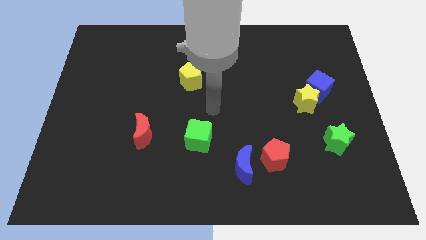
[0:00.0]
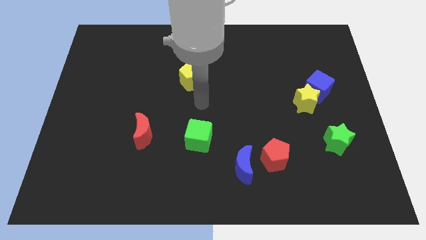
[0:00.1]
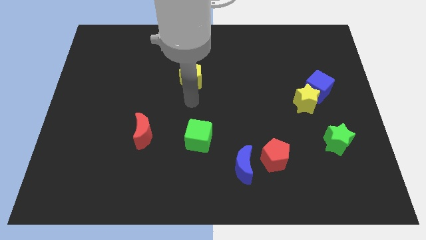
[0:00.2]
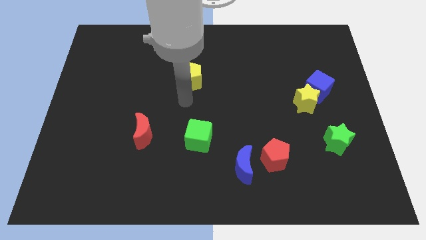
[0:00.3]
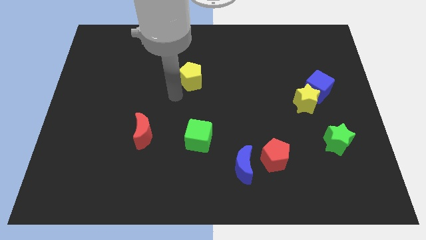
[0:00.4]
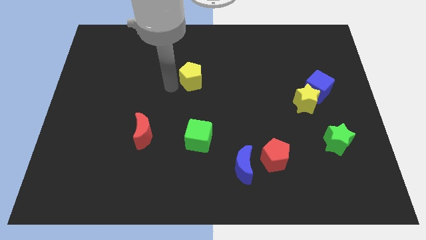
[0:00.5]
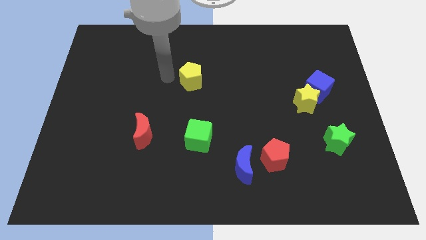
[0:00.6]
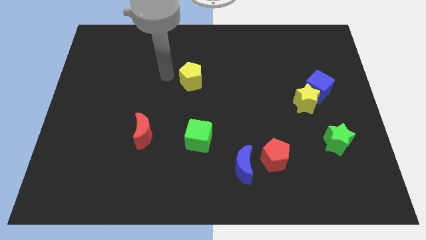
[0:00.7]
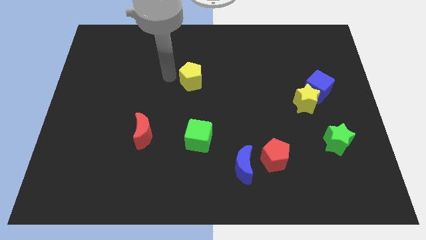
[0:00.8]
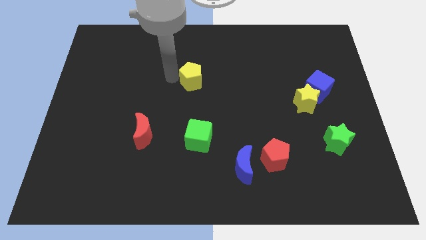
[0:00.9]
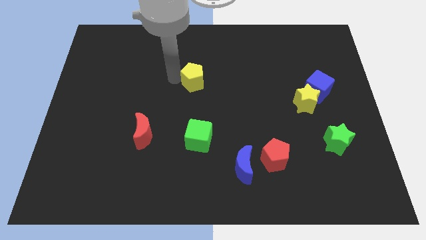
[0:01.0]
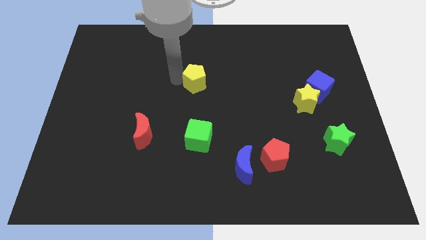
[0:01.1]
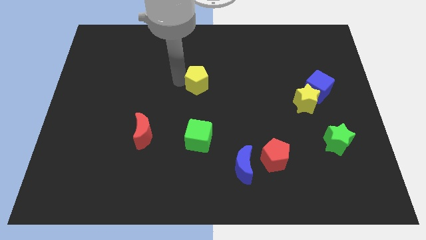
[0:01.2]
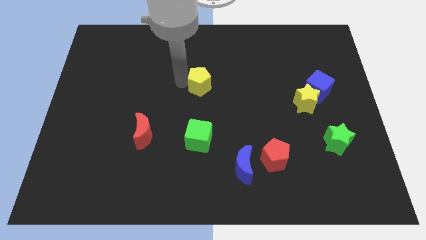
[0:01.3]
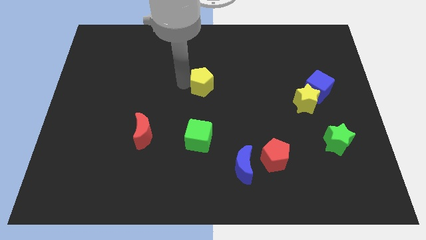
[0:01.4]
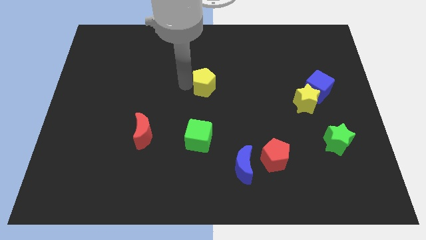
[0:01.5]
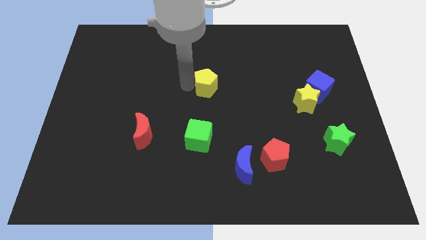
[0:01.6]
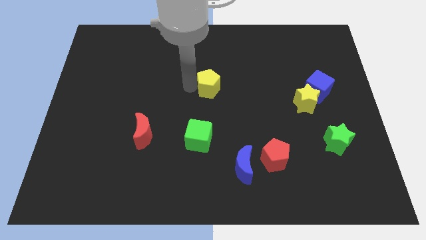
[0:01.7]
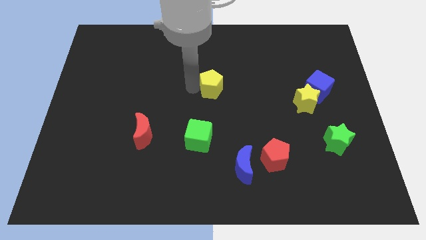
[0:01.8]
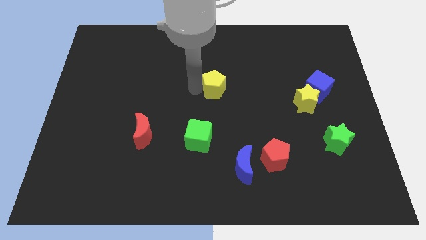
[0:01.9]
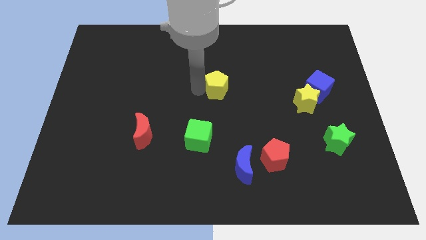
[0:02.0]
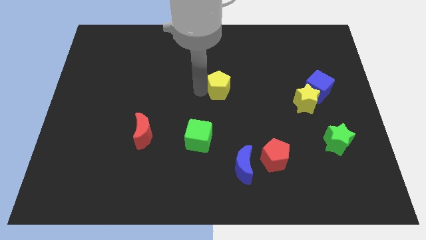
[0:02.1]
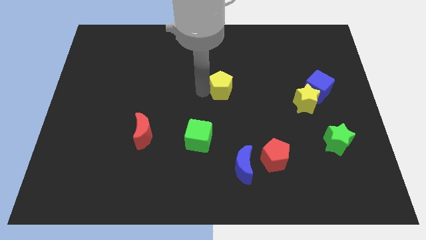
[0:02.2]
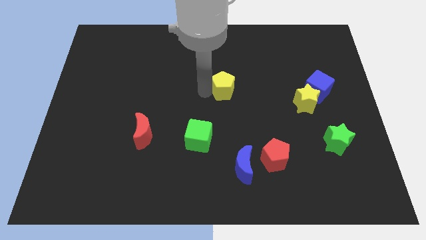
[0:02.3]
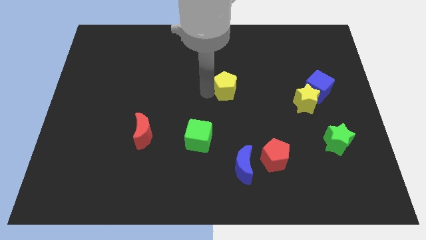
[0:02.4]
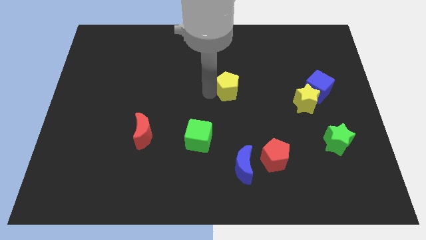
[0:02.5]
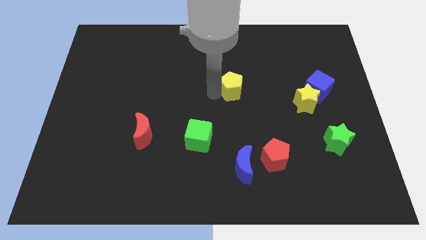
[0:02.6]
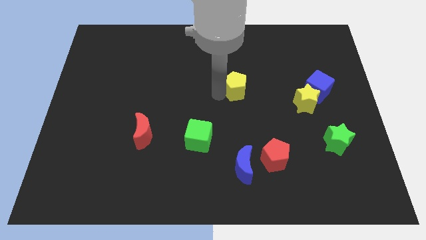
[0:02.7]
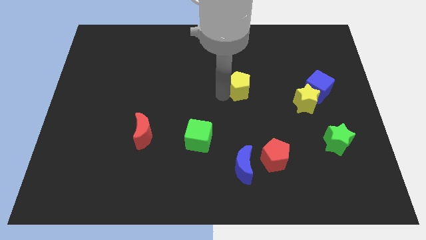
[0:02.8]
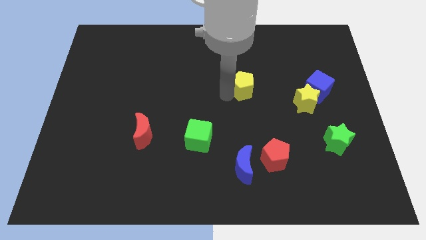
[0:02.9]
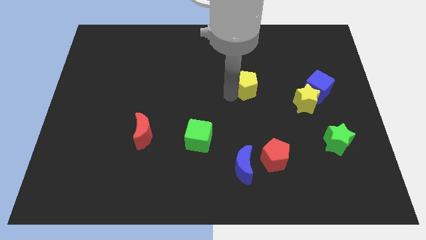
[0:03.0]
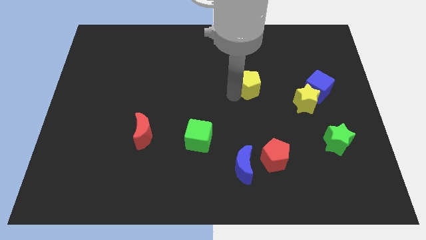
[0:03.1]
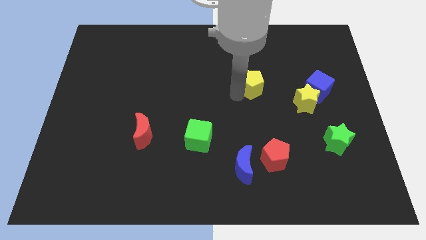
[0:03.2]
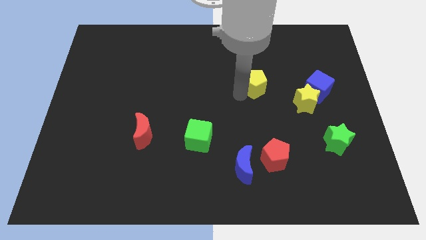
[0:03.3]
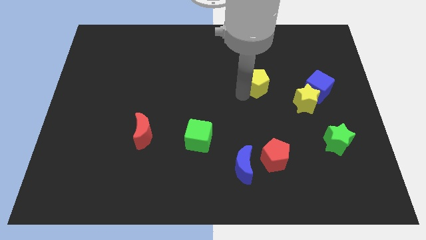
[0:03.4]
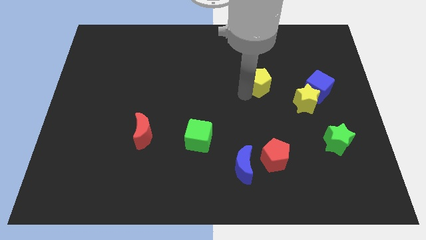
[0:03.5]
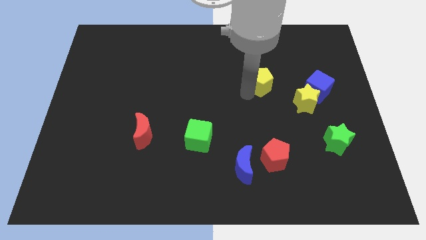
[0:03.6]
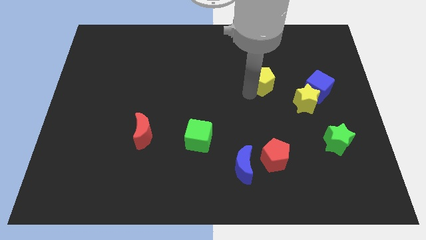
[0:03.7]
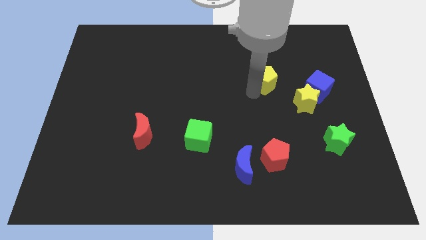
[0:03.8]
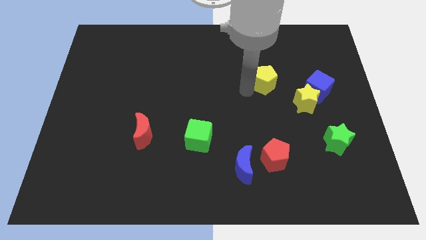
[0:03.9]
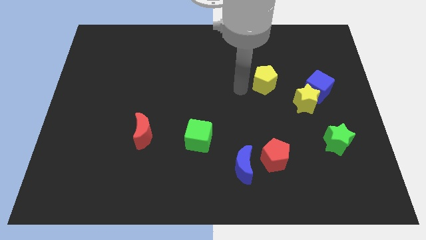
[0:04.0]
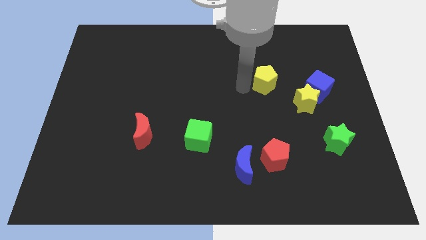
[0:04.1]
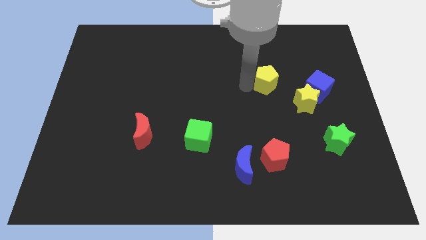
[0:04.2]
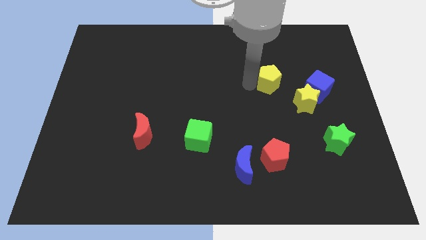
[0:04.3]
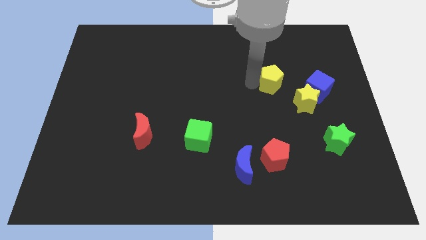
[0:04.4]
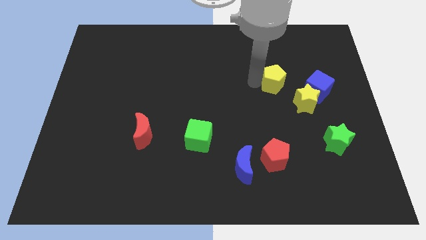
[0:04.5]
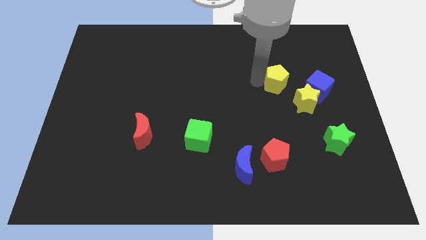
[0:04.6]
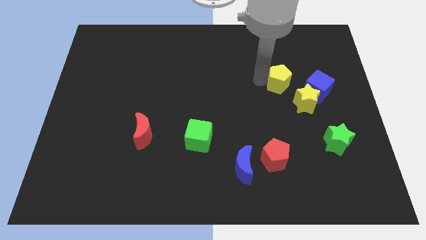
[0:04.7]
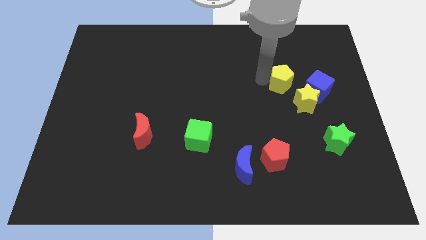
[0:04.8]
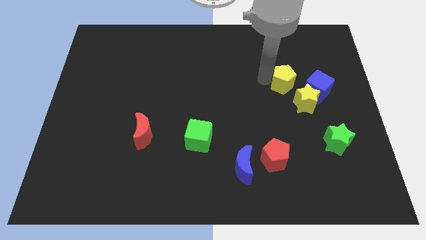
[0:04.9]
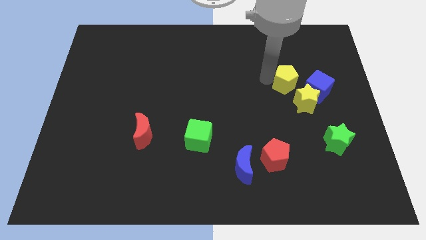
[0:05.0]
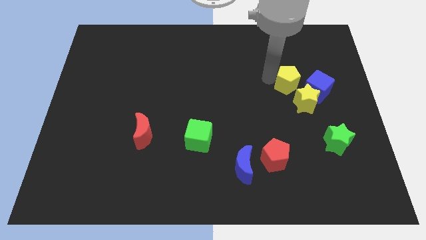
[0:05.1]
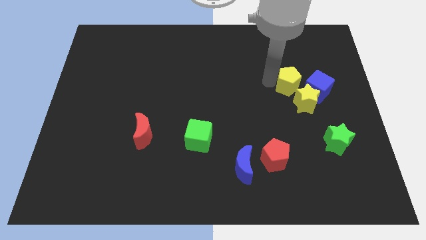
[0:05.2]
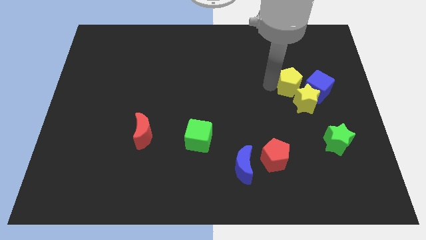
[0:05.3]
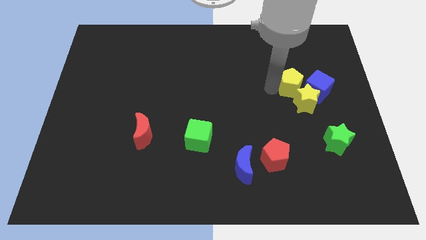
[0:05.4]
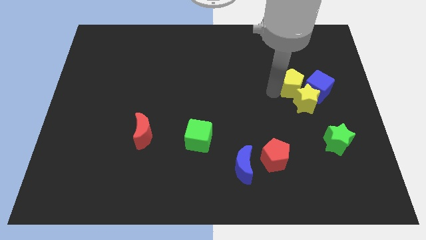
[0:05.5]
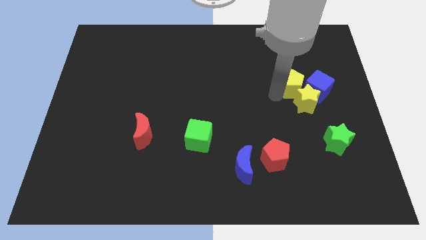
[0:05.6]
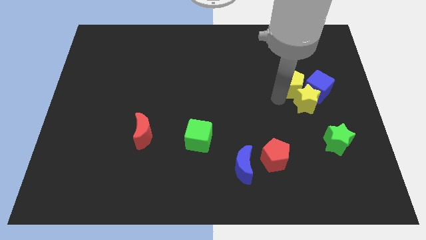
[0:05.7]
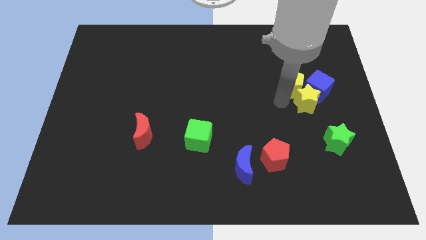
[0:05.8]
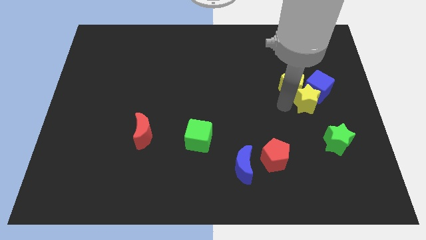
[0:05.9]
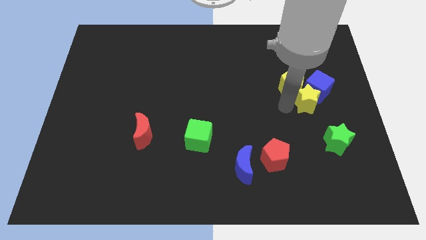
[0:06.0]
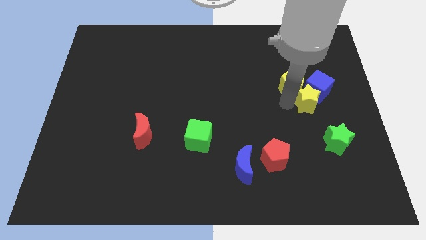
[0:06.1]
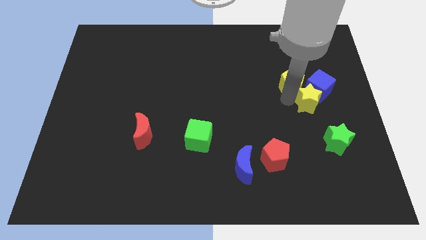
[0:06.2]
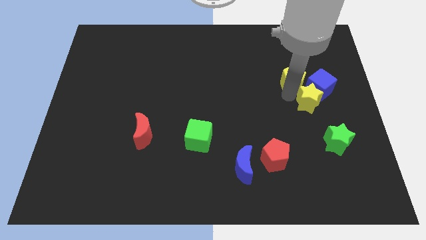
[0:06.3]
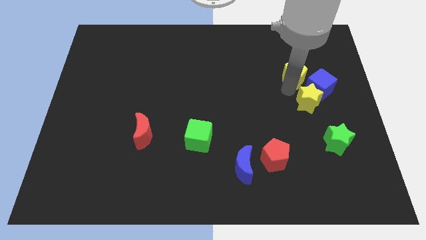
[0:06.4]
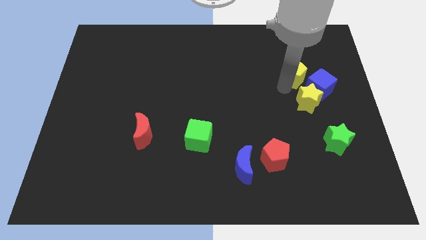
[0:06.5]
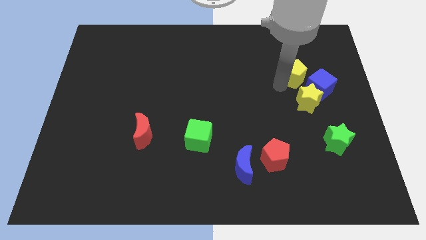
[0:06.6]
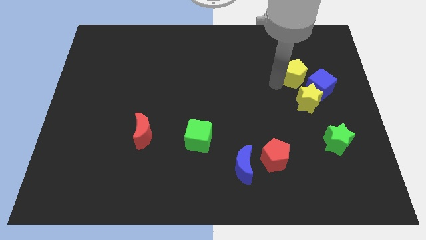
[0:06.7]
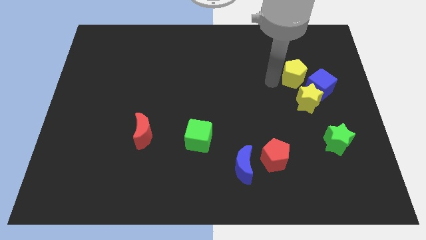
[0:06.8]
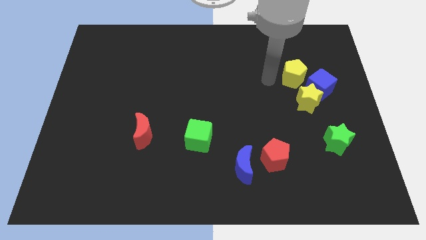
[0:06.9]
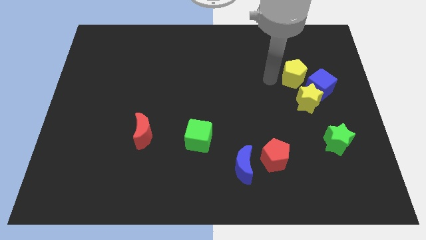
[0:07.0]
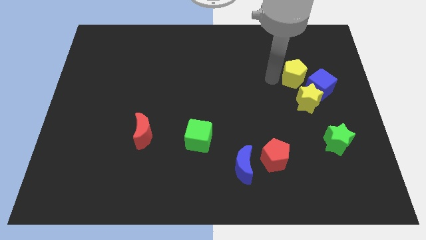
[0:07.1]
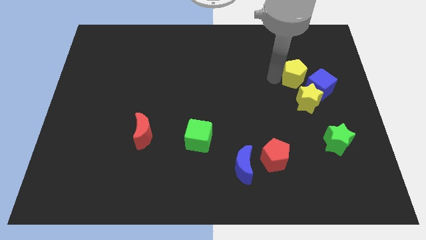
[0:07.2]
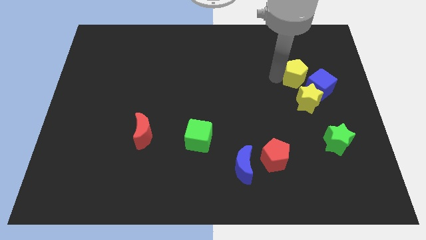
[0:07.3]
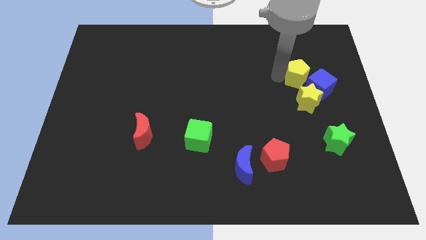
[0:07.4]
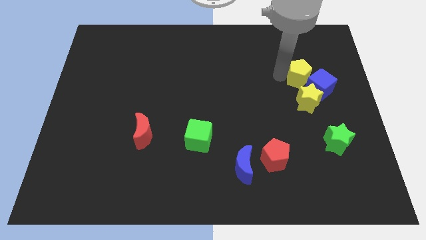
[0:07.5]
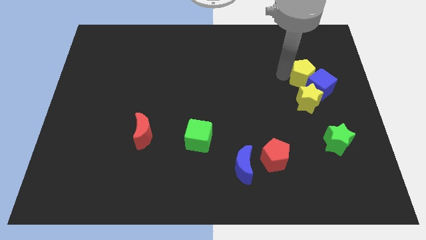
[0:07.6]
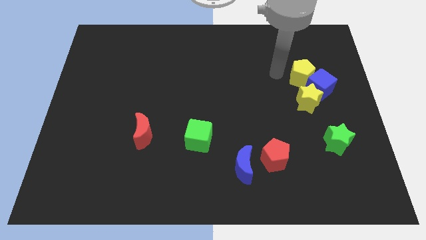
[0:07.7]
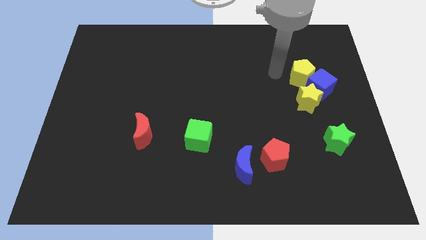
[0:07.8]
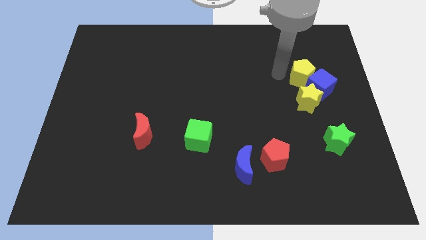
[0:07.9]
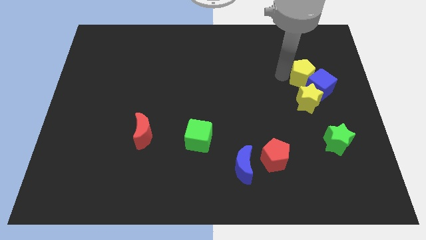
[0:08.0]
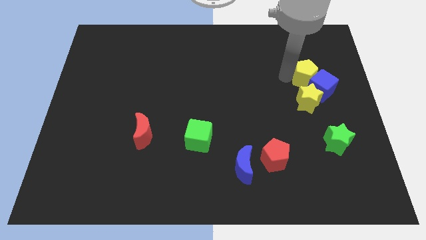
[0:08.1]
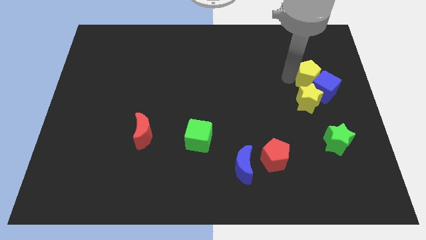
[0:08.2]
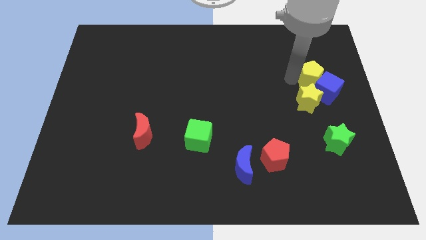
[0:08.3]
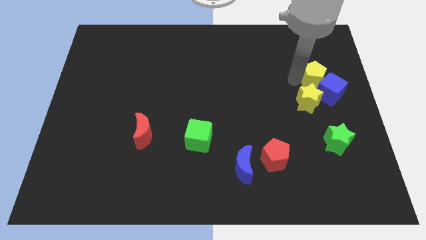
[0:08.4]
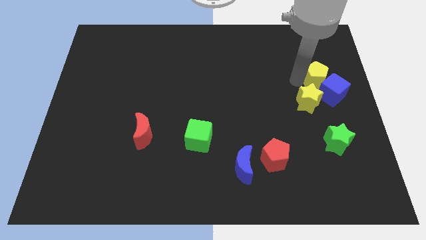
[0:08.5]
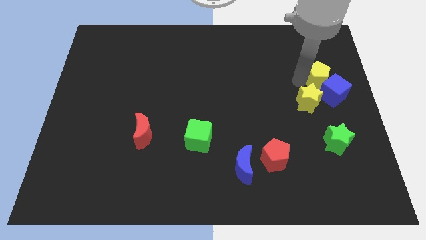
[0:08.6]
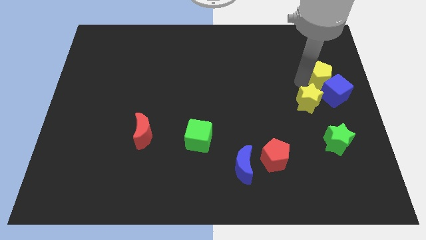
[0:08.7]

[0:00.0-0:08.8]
slide the yellow pentagon to the right side
